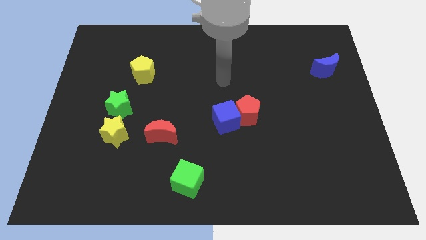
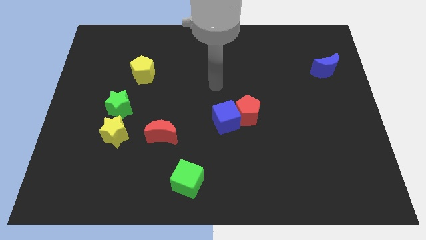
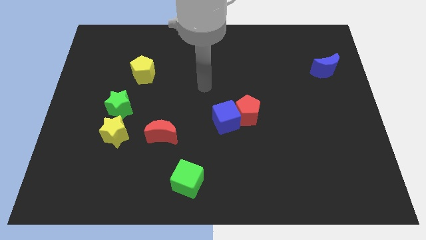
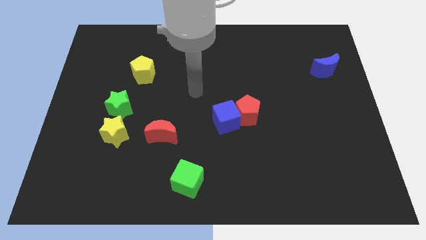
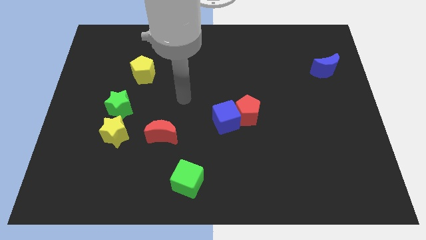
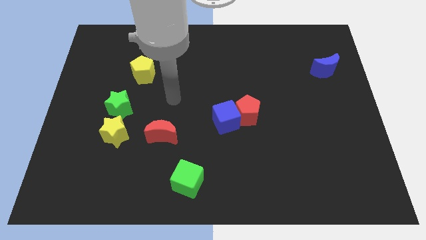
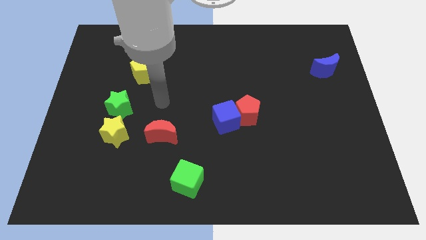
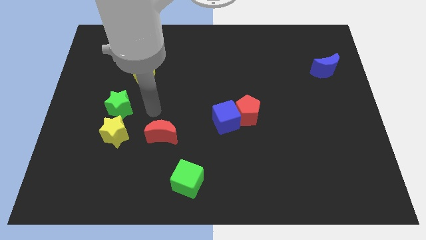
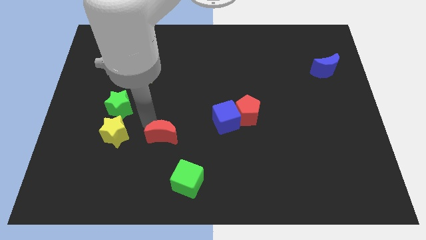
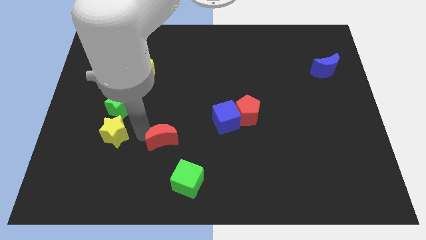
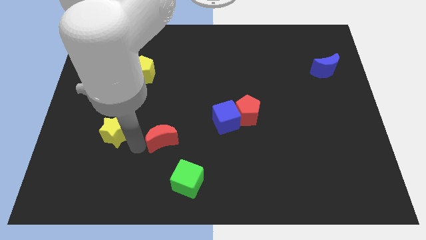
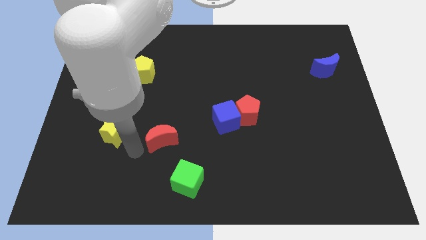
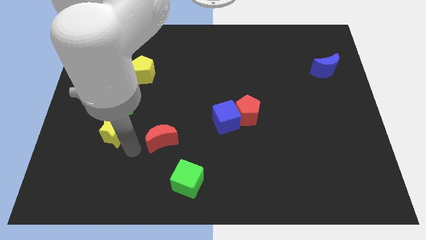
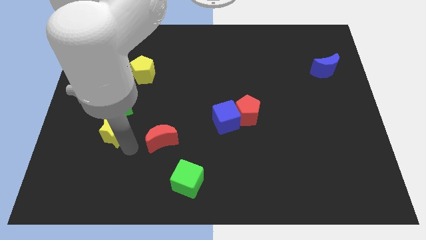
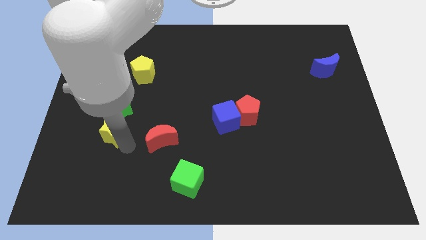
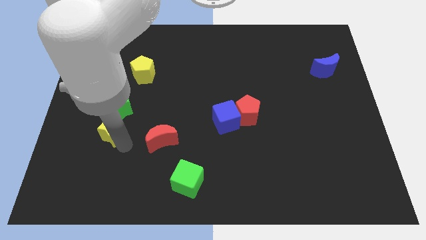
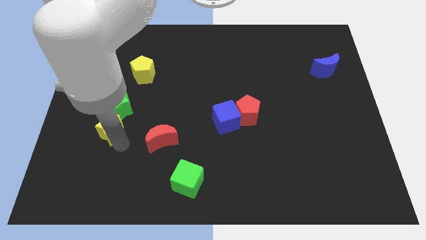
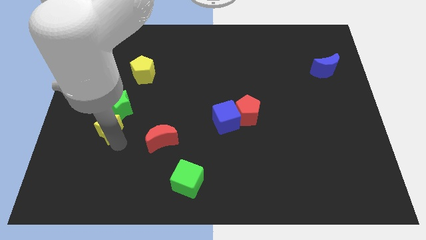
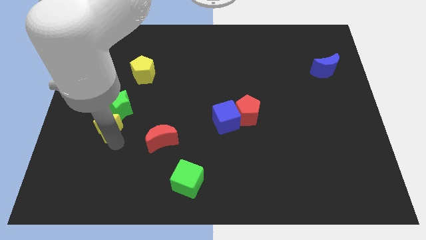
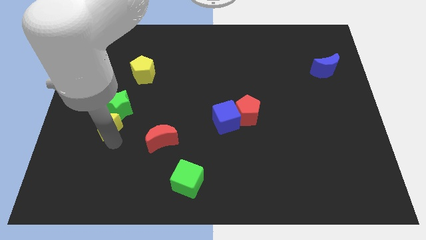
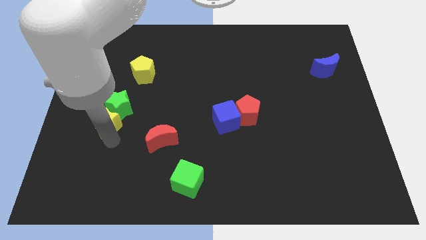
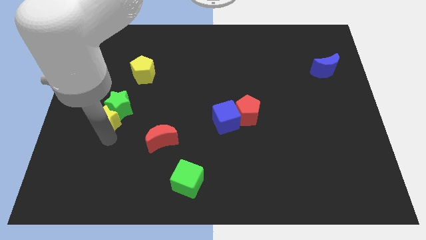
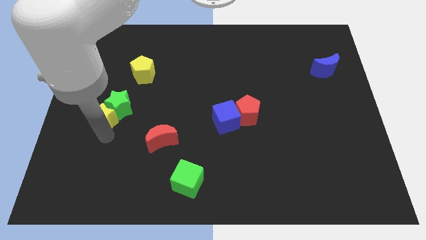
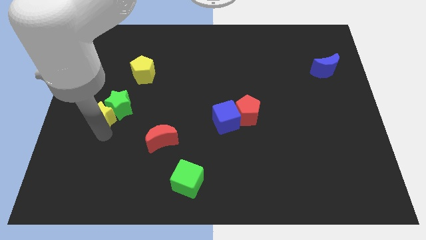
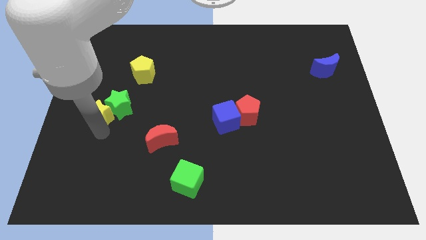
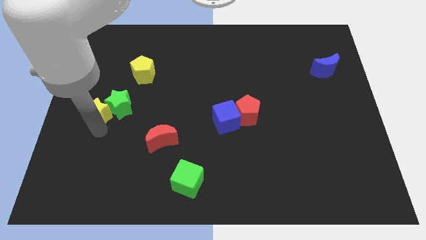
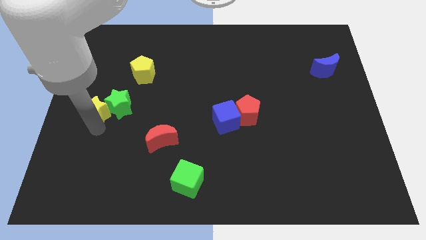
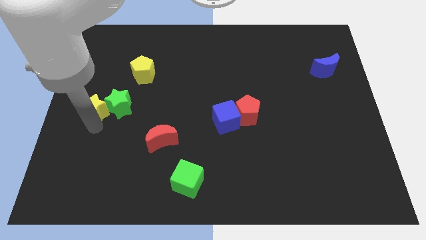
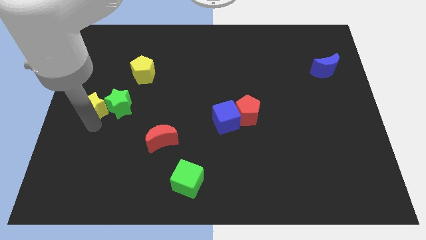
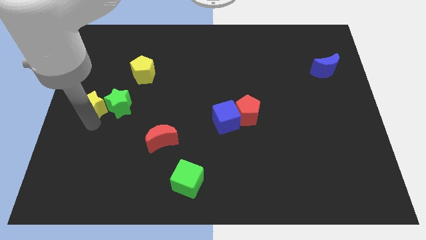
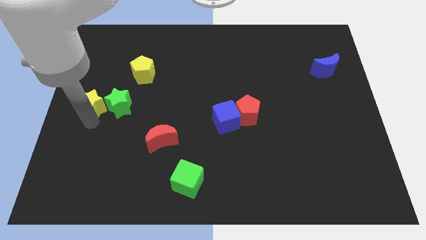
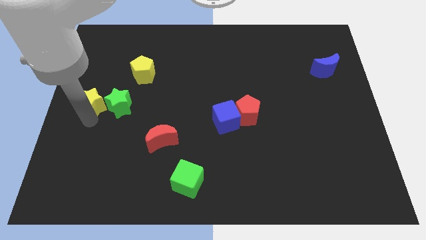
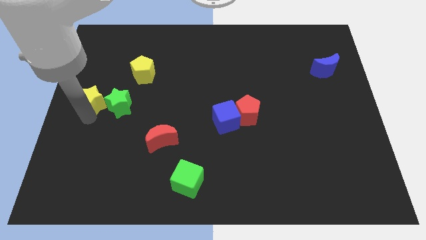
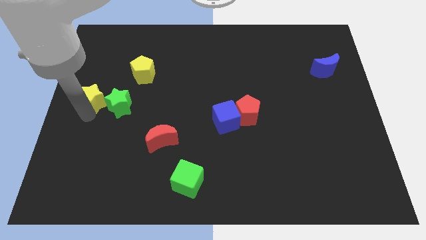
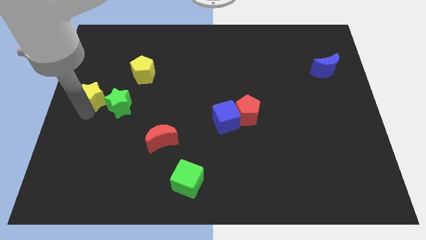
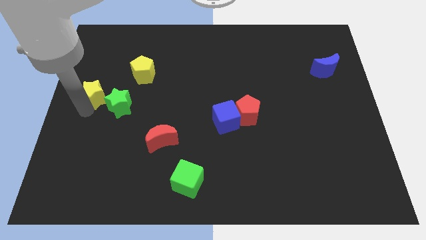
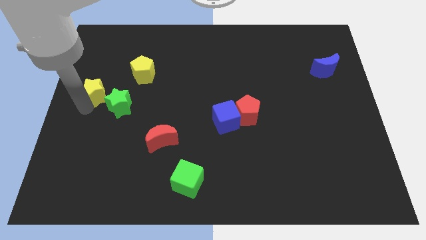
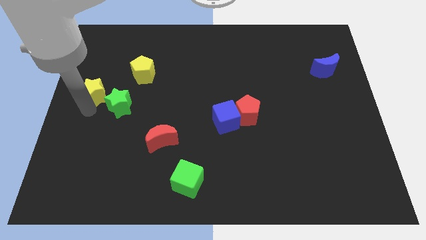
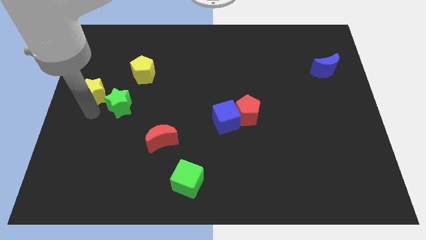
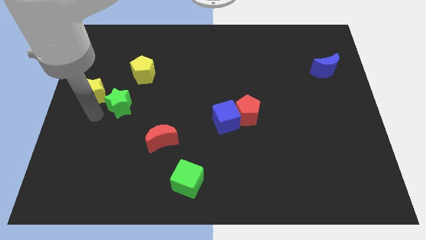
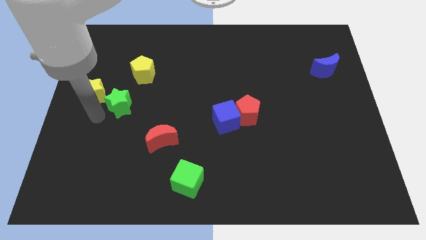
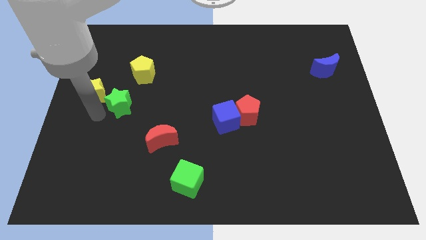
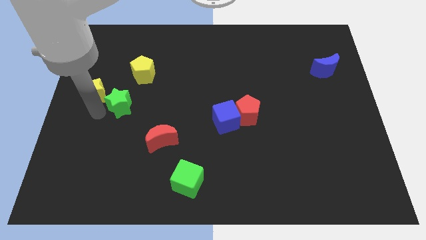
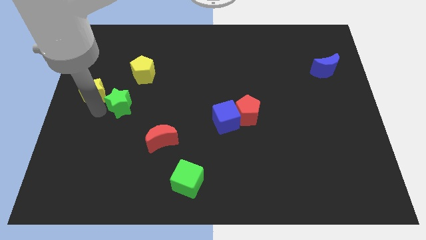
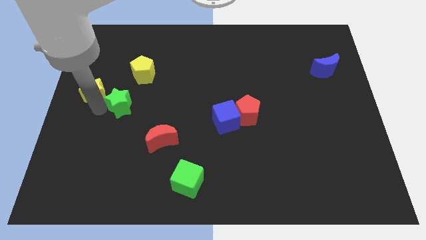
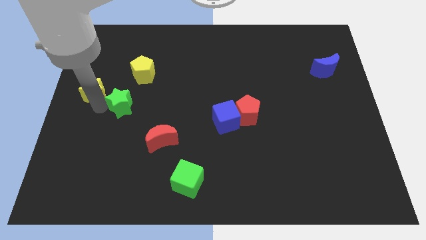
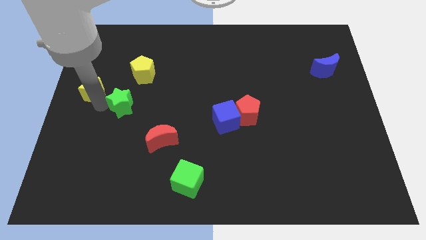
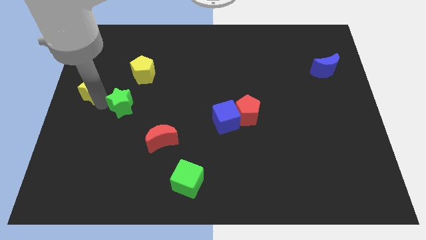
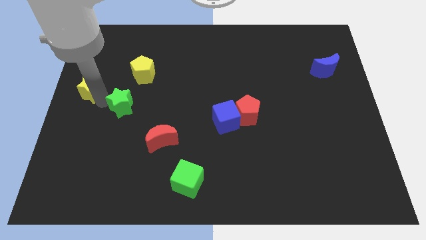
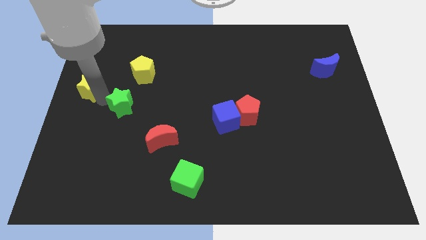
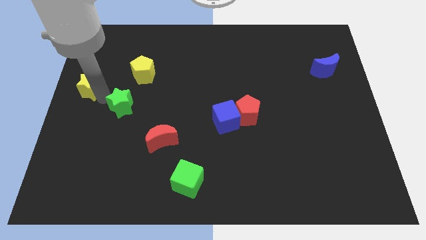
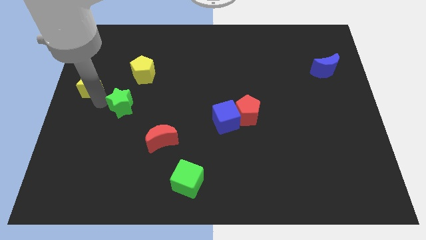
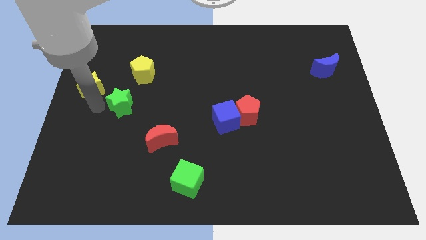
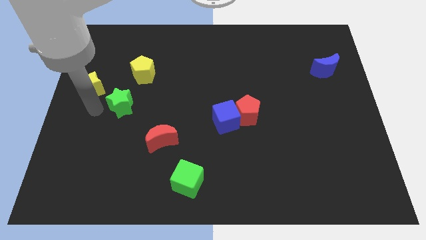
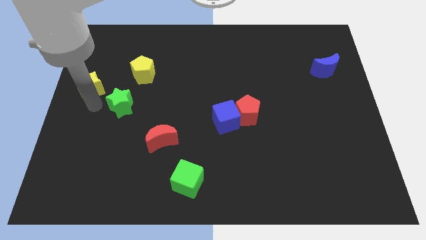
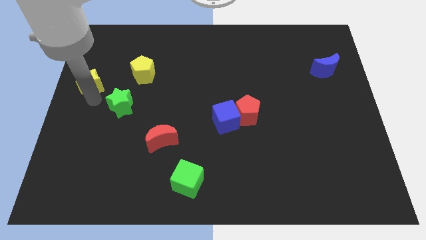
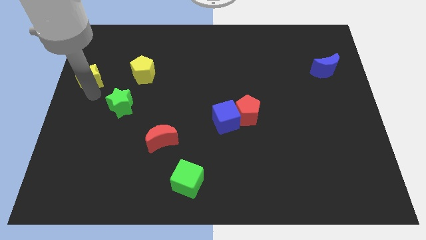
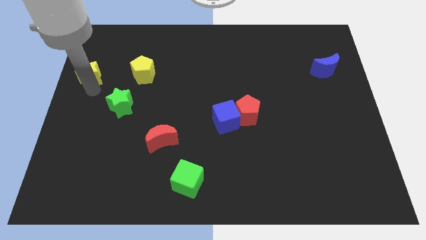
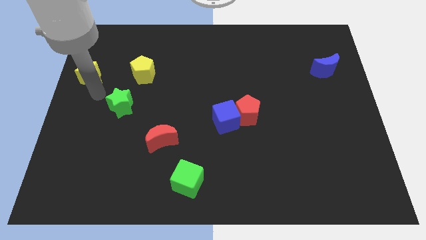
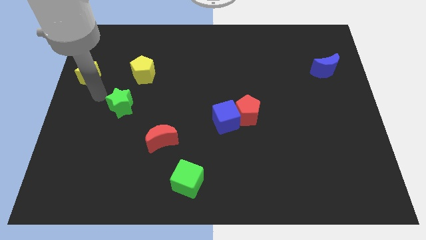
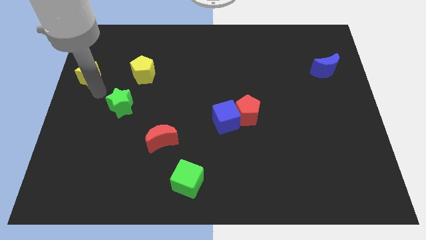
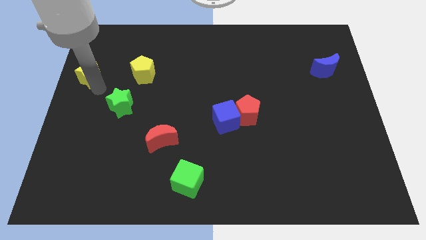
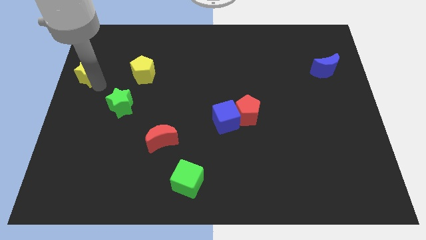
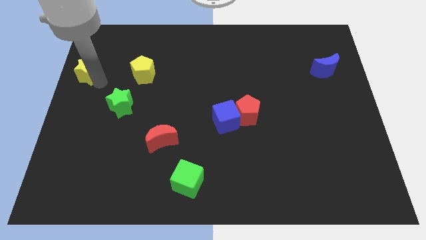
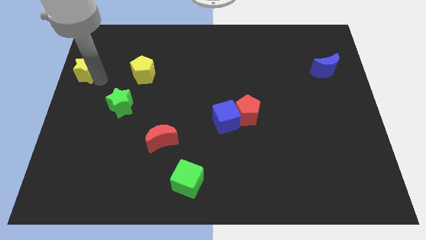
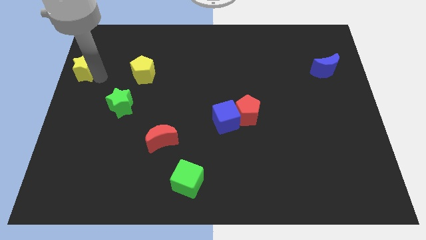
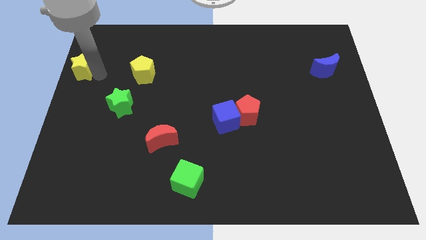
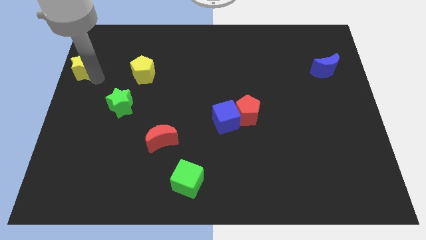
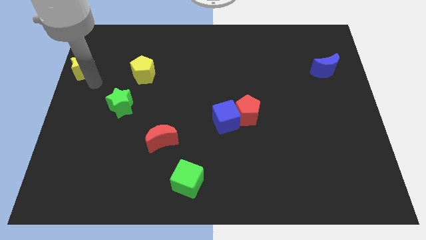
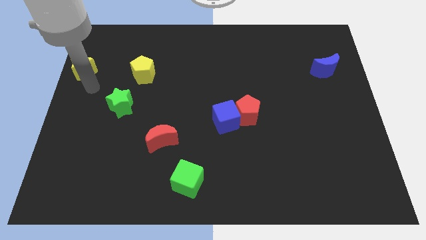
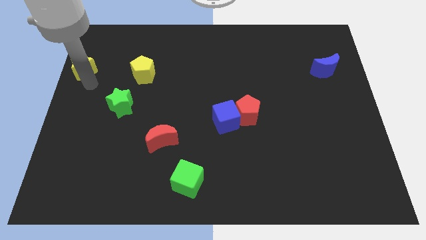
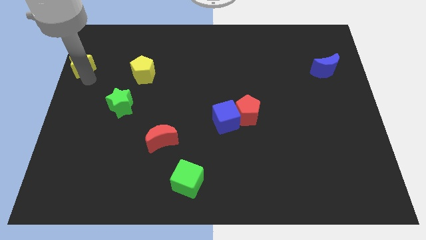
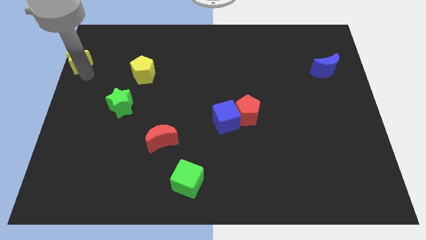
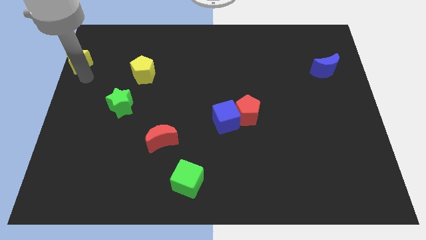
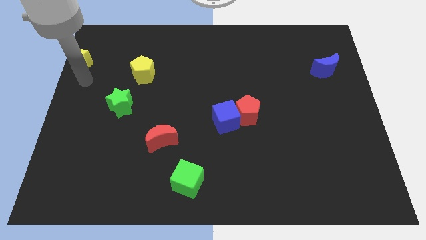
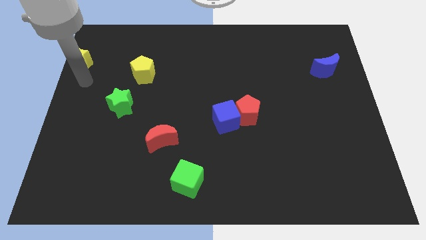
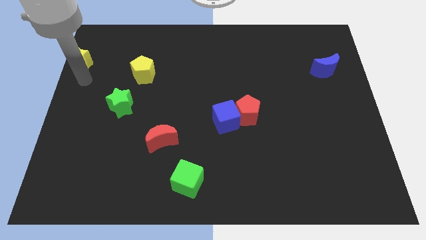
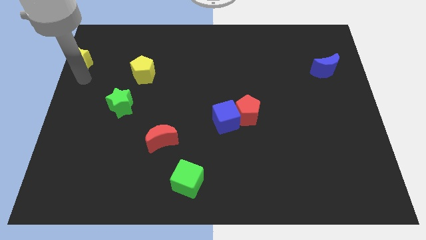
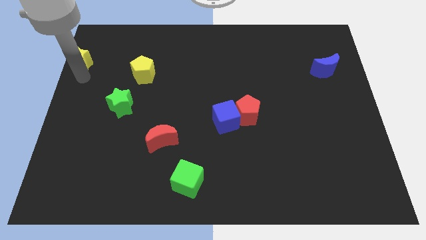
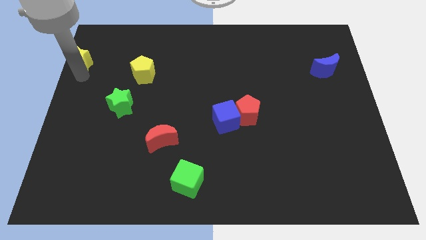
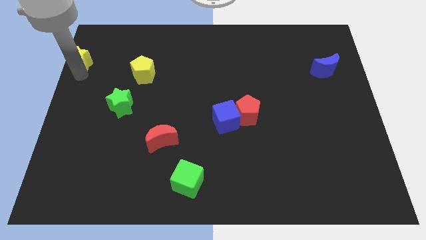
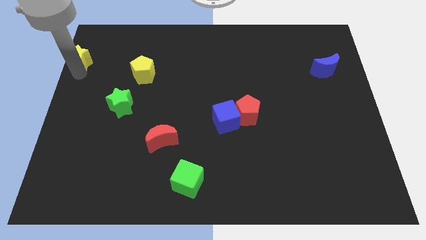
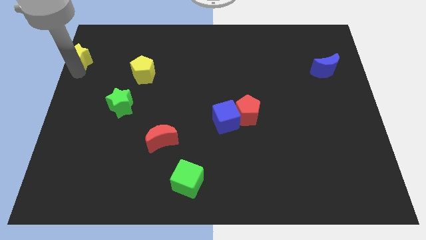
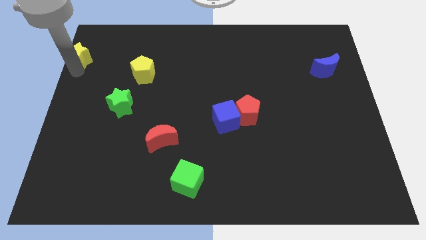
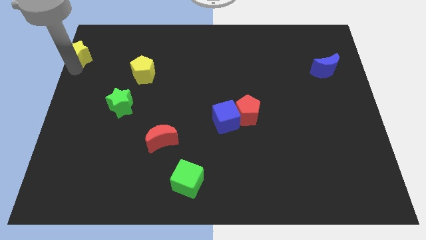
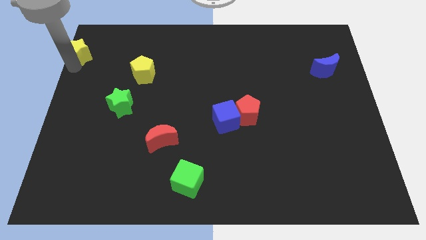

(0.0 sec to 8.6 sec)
push the yellow star to the top left corner
